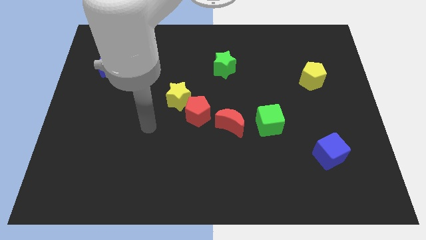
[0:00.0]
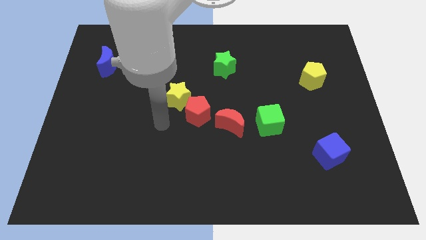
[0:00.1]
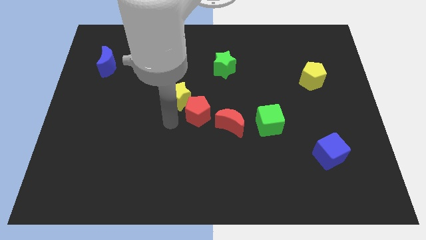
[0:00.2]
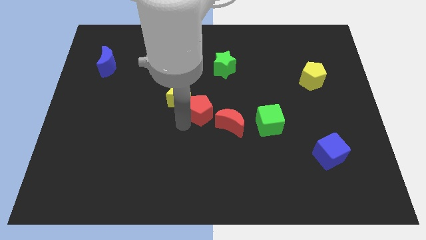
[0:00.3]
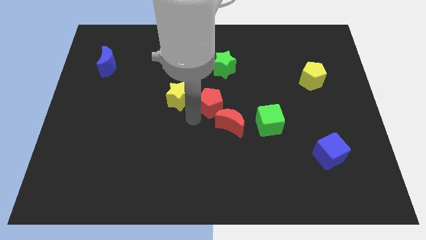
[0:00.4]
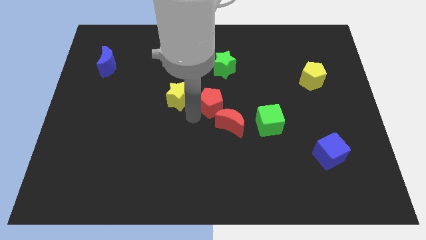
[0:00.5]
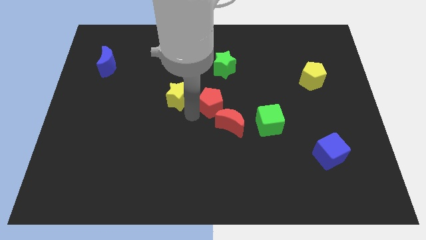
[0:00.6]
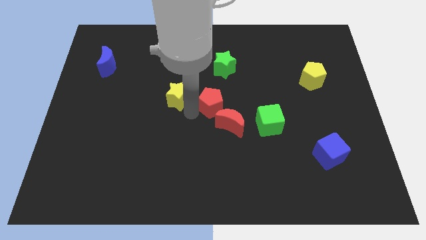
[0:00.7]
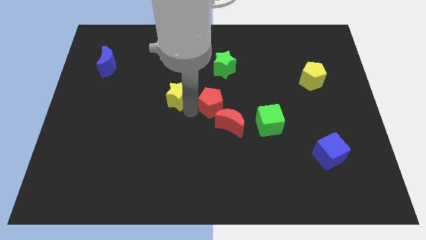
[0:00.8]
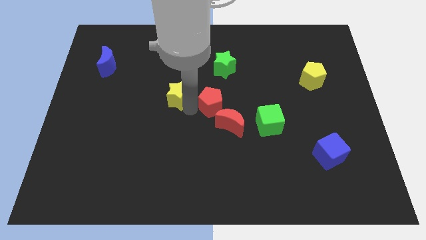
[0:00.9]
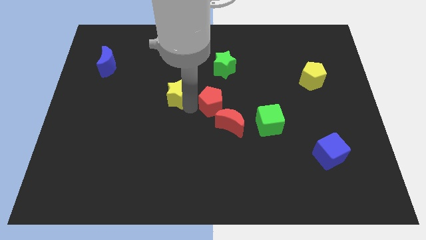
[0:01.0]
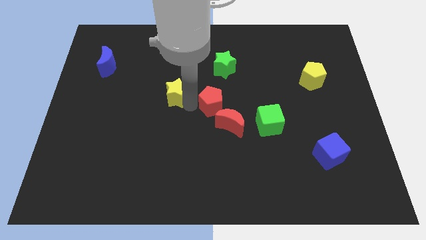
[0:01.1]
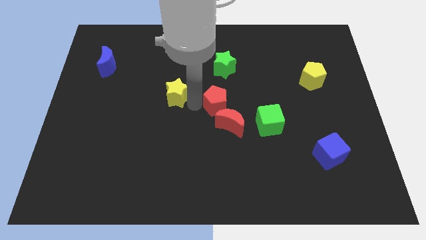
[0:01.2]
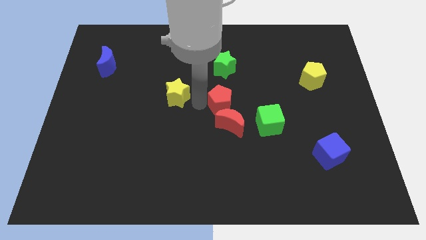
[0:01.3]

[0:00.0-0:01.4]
separate the yellow star from the red pentagon

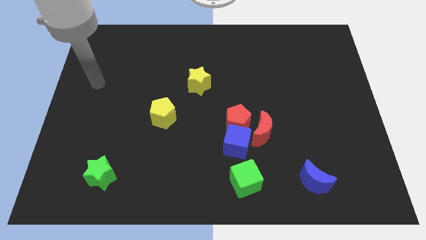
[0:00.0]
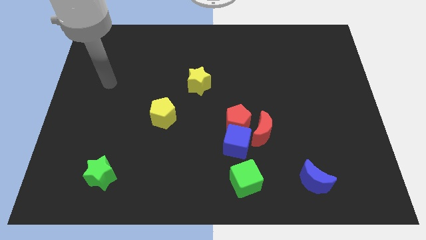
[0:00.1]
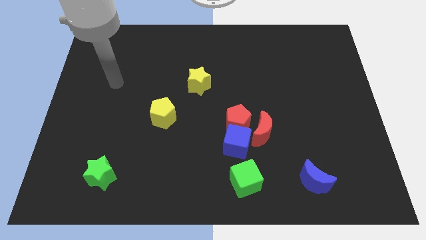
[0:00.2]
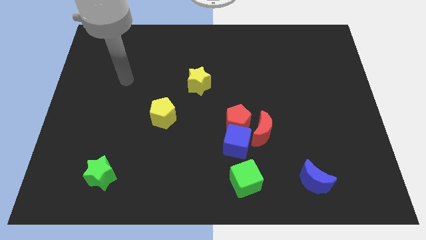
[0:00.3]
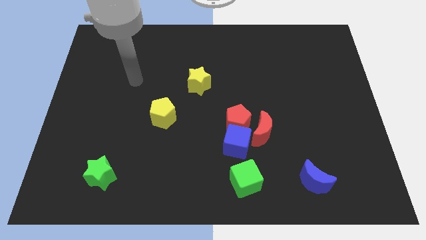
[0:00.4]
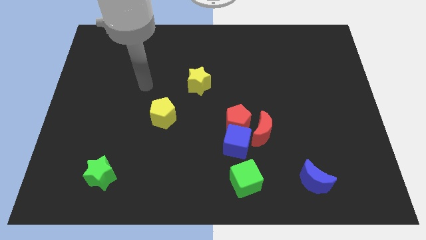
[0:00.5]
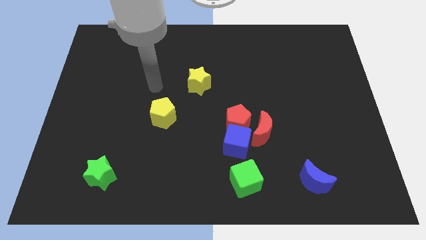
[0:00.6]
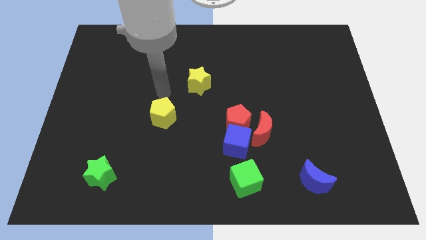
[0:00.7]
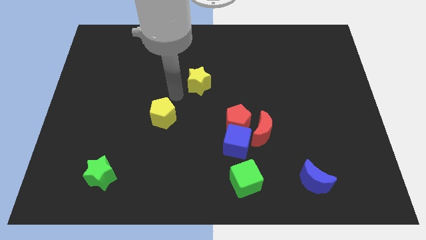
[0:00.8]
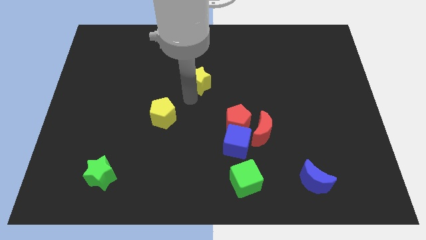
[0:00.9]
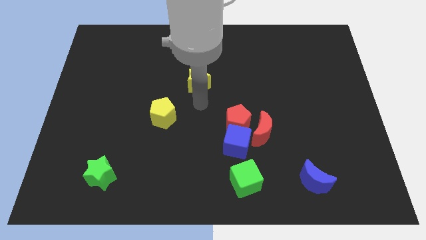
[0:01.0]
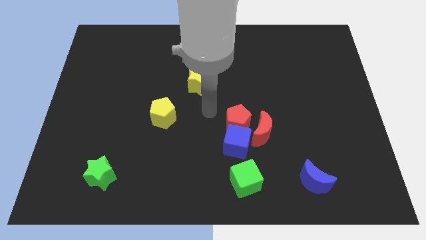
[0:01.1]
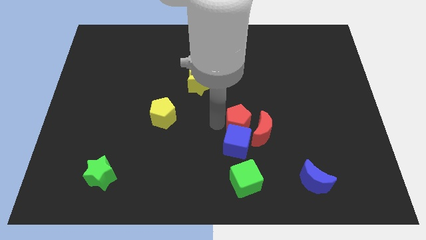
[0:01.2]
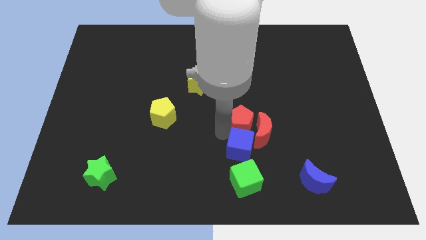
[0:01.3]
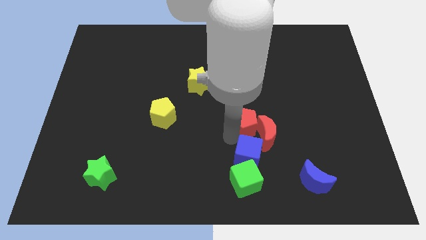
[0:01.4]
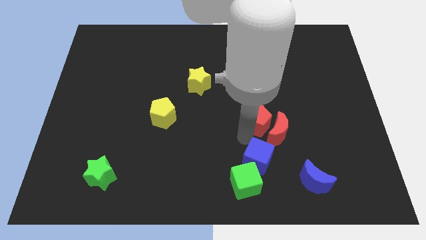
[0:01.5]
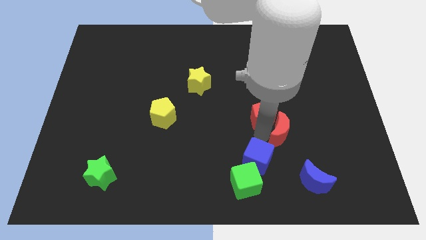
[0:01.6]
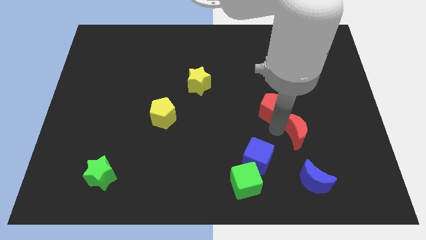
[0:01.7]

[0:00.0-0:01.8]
separate the red pentagon from the blue cube and red moon

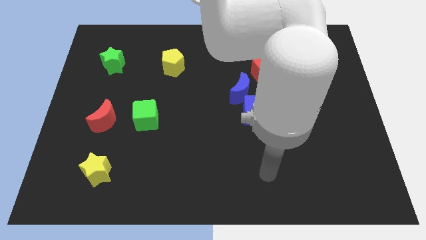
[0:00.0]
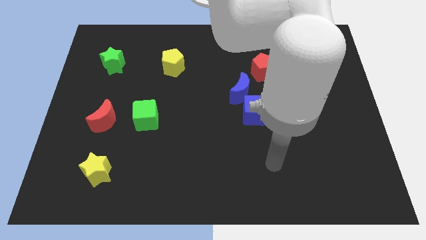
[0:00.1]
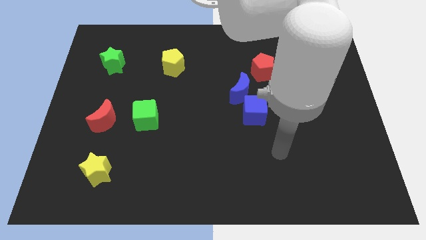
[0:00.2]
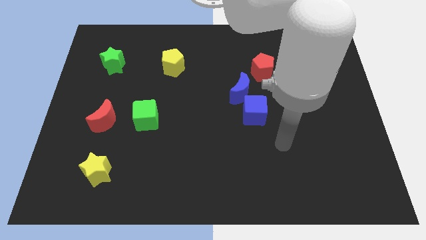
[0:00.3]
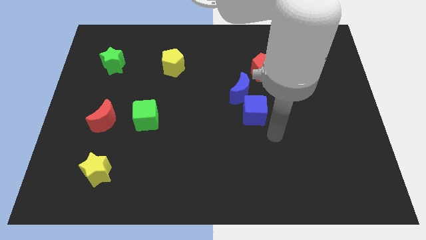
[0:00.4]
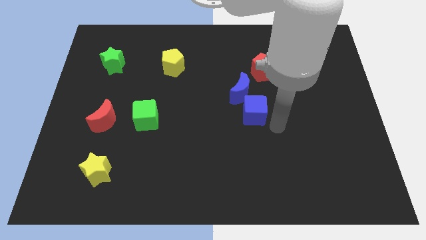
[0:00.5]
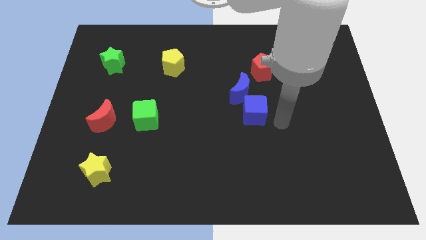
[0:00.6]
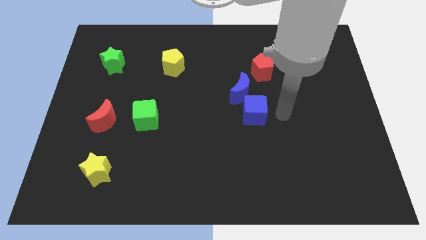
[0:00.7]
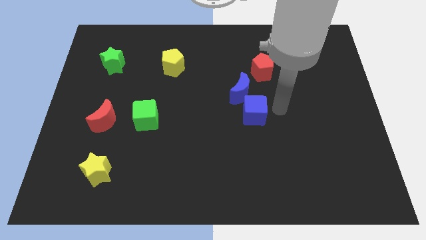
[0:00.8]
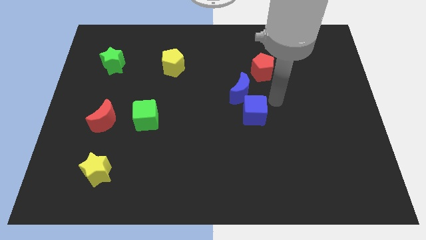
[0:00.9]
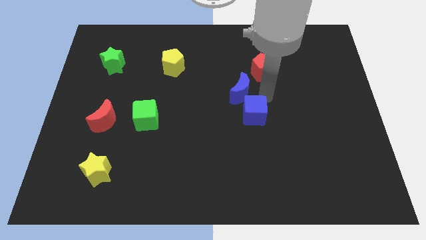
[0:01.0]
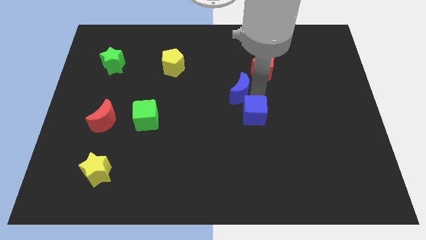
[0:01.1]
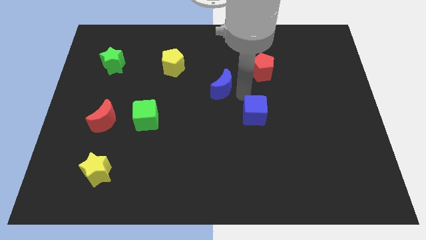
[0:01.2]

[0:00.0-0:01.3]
separate the blue cube from the blue moon

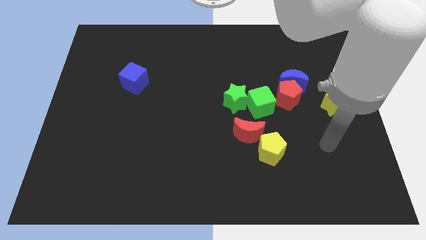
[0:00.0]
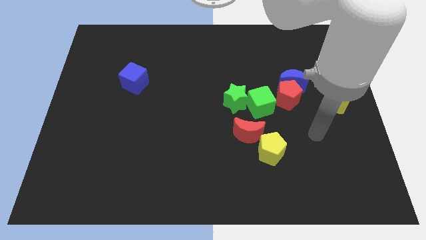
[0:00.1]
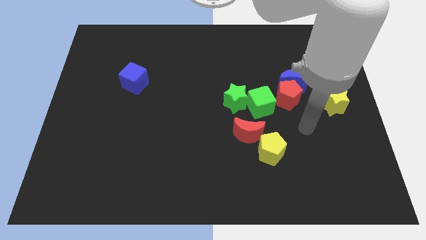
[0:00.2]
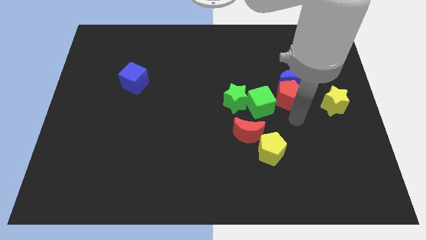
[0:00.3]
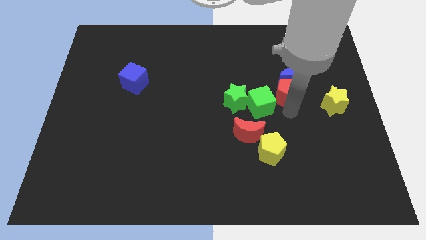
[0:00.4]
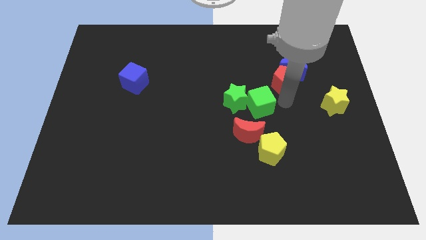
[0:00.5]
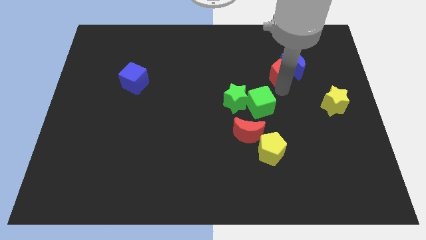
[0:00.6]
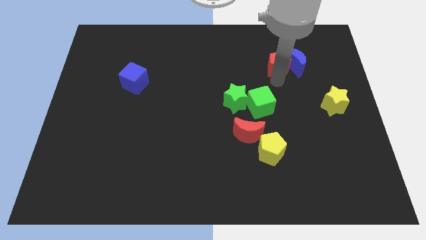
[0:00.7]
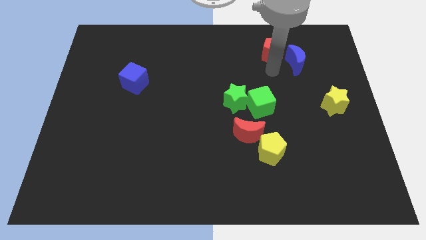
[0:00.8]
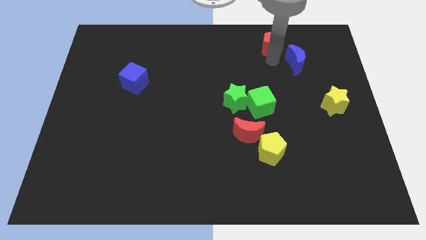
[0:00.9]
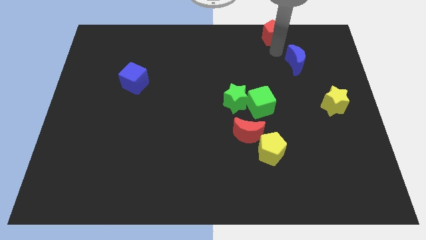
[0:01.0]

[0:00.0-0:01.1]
separate the blue moon from the red pentagon

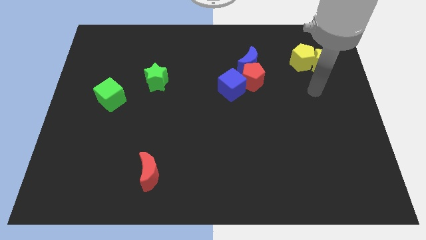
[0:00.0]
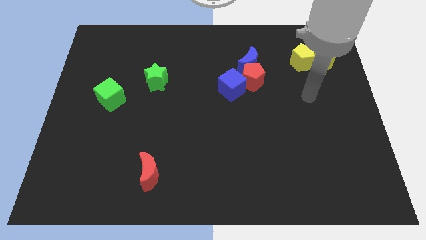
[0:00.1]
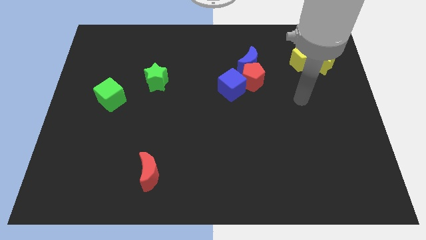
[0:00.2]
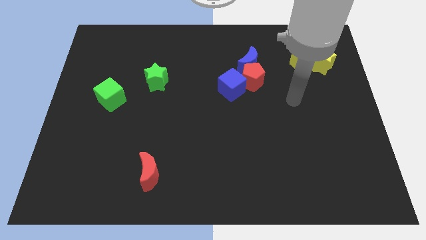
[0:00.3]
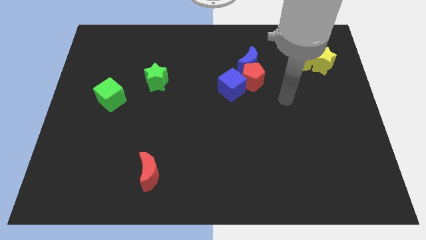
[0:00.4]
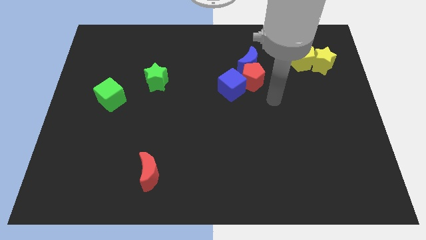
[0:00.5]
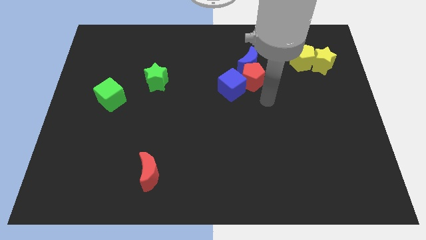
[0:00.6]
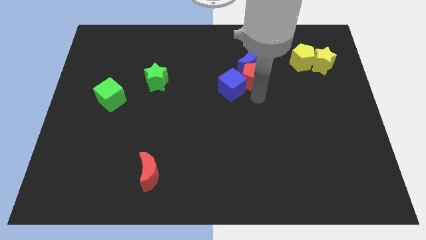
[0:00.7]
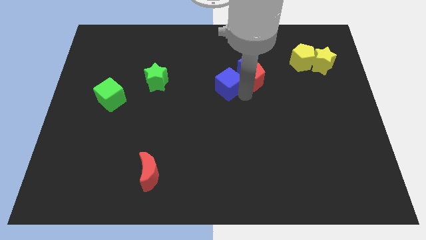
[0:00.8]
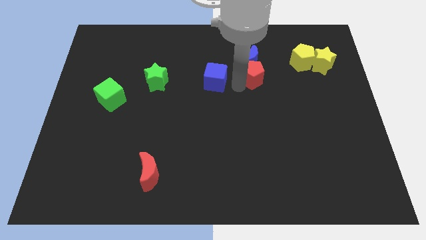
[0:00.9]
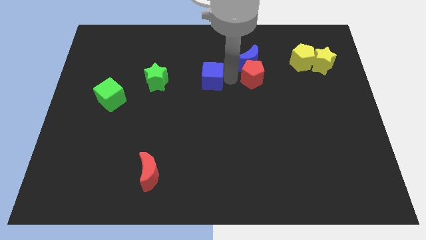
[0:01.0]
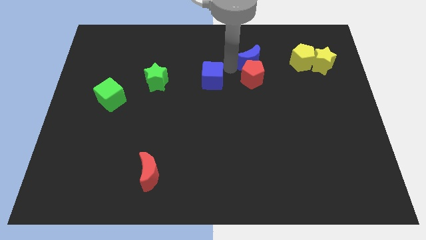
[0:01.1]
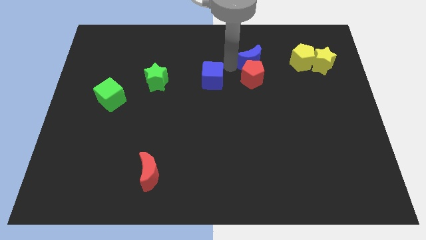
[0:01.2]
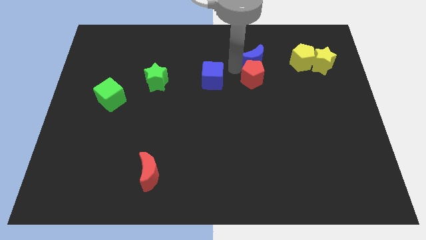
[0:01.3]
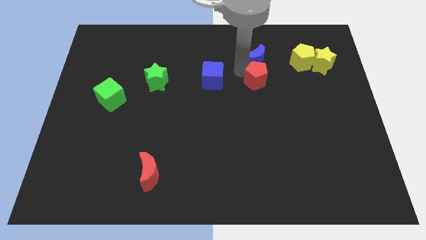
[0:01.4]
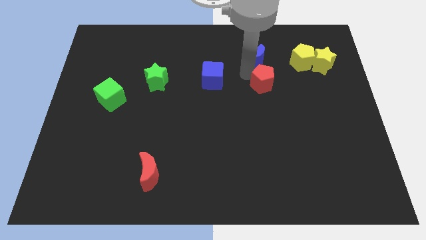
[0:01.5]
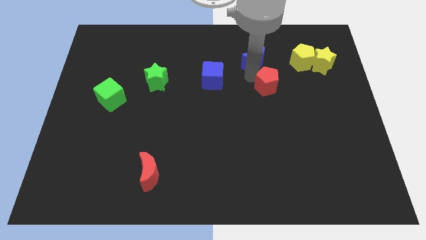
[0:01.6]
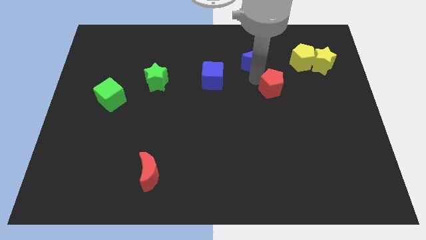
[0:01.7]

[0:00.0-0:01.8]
separate the red pentagon from the blue moon and blue cube

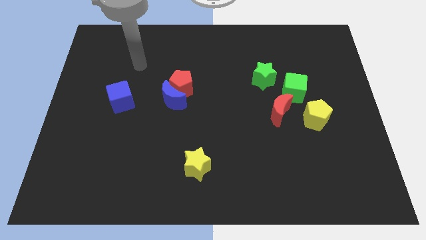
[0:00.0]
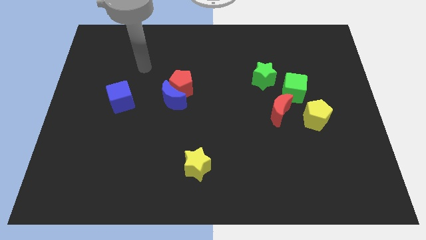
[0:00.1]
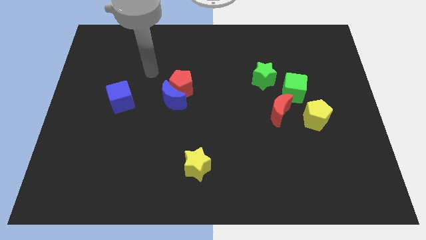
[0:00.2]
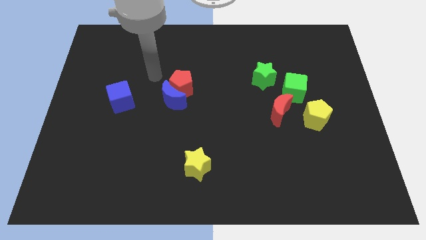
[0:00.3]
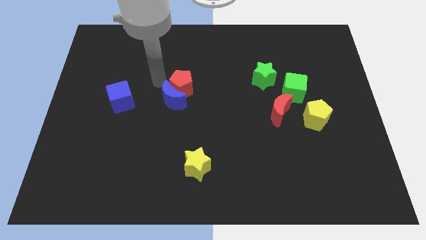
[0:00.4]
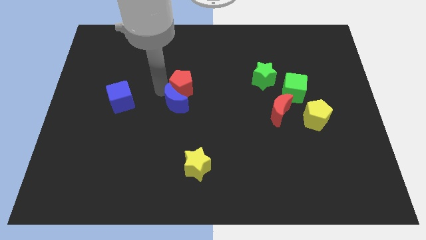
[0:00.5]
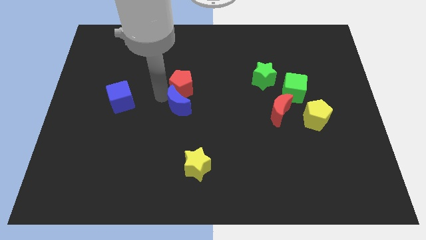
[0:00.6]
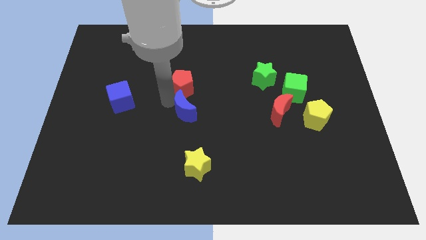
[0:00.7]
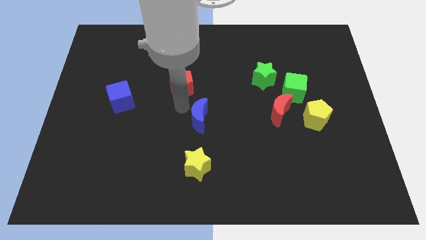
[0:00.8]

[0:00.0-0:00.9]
separate the red pentagon from the blue moon

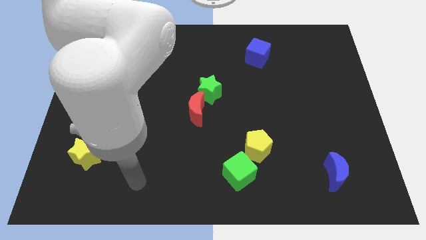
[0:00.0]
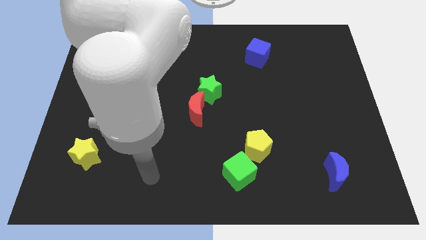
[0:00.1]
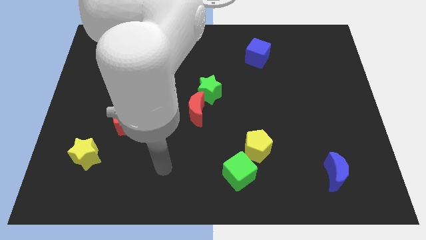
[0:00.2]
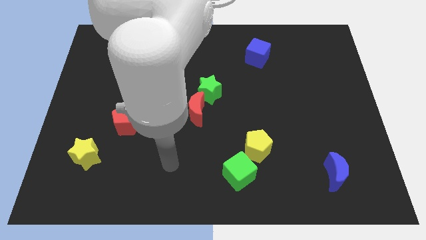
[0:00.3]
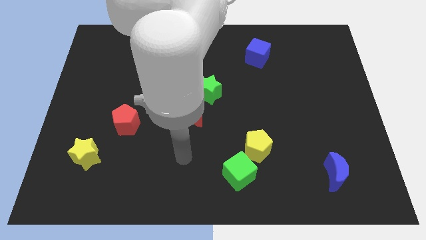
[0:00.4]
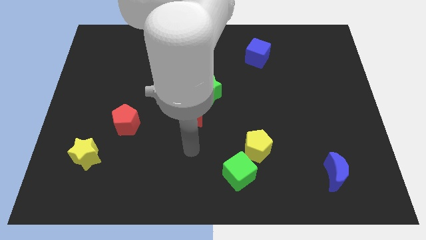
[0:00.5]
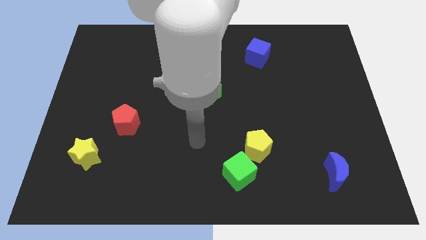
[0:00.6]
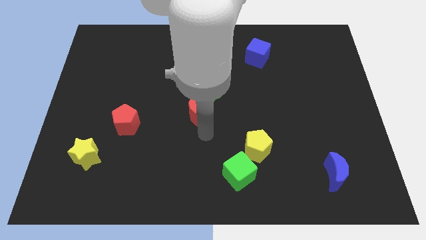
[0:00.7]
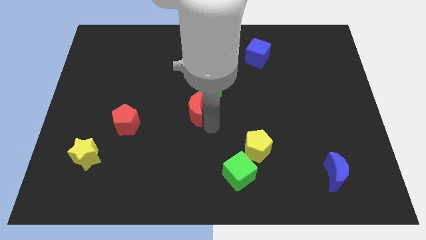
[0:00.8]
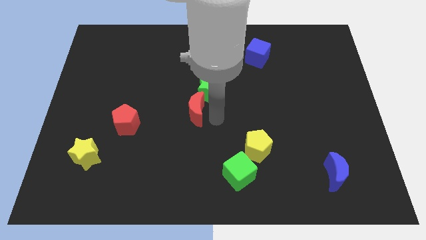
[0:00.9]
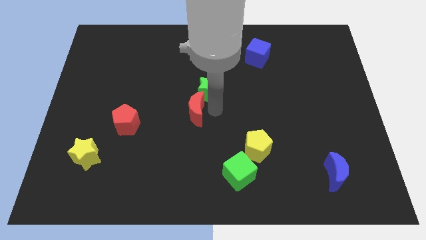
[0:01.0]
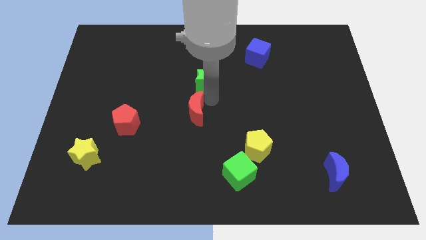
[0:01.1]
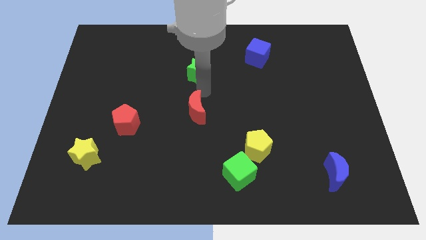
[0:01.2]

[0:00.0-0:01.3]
pull the red moon apart from the green star
